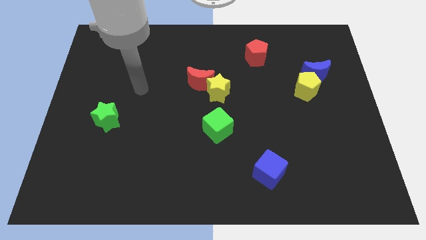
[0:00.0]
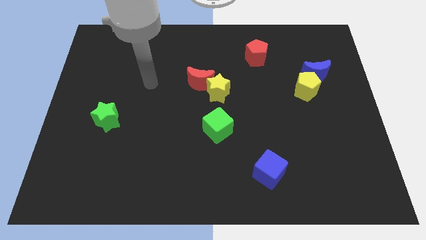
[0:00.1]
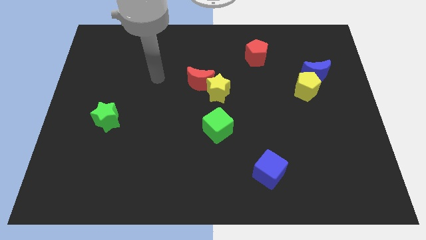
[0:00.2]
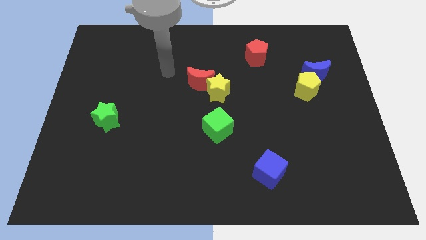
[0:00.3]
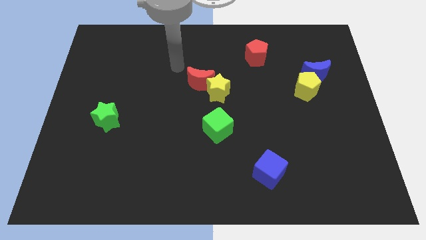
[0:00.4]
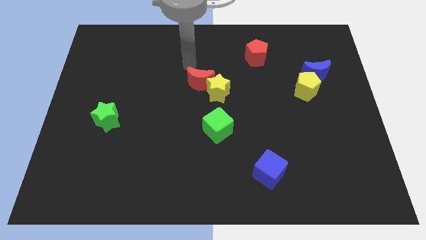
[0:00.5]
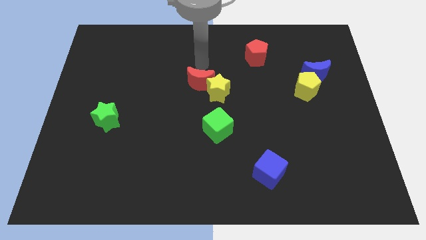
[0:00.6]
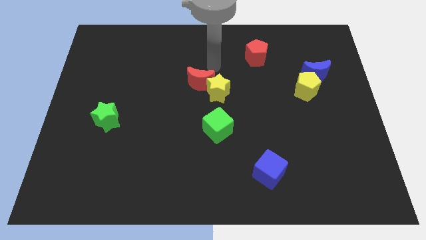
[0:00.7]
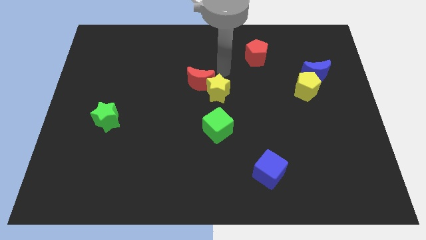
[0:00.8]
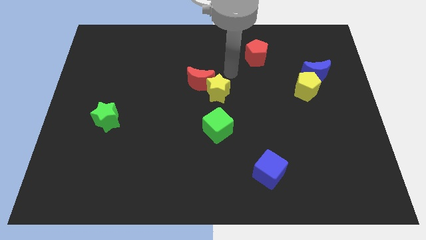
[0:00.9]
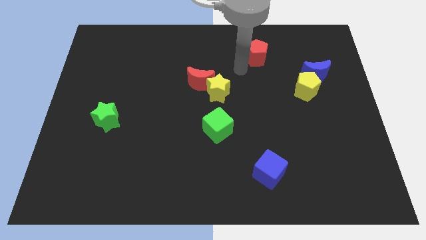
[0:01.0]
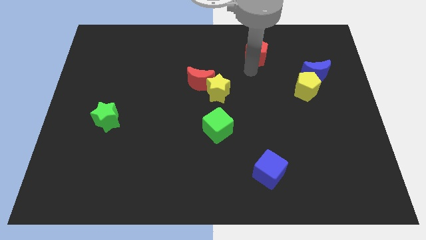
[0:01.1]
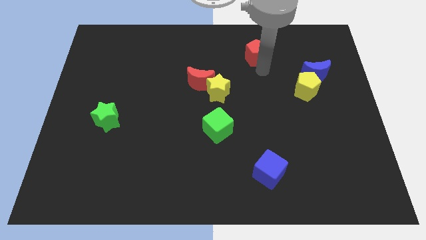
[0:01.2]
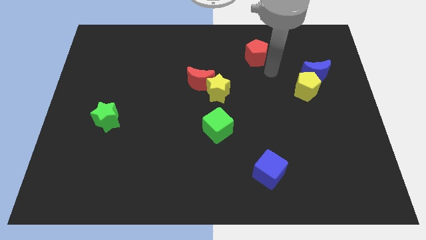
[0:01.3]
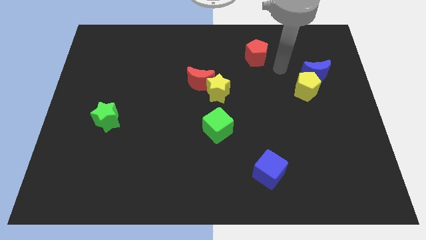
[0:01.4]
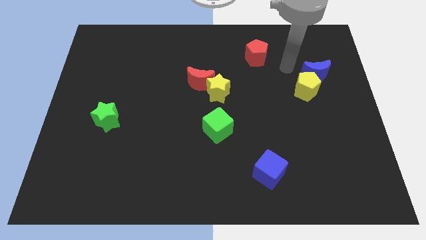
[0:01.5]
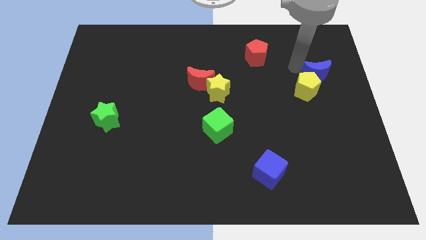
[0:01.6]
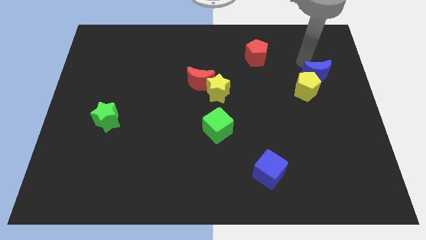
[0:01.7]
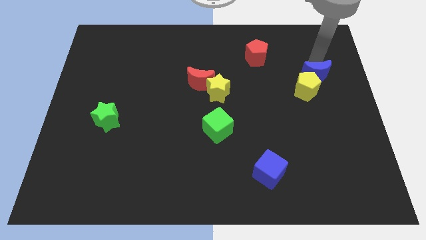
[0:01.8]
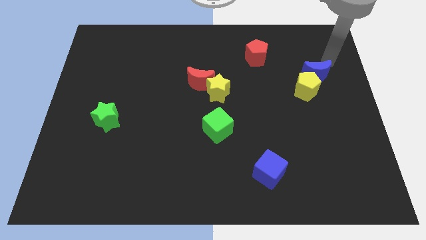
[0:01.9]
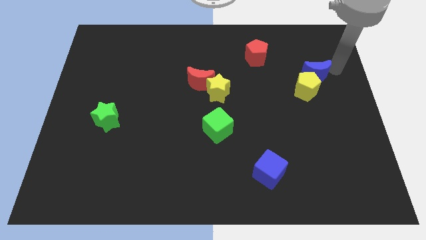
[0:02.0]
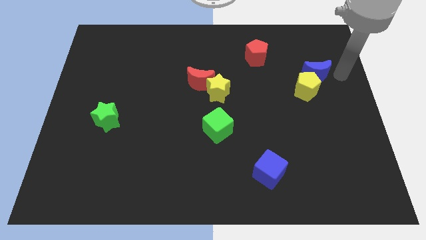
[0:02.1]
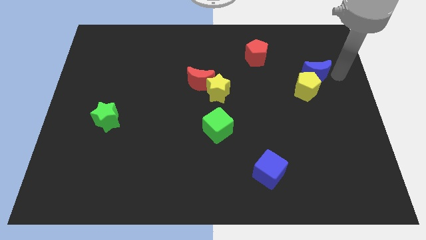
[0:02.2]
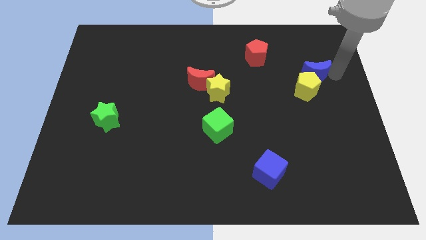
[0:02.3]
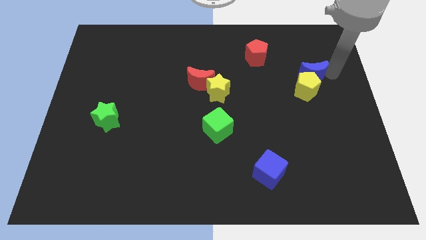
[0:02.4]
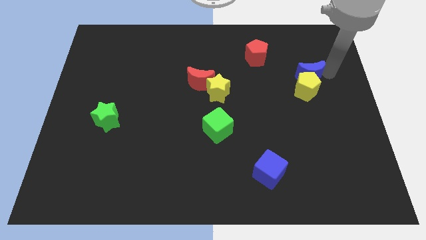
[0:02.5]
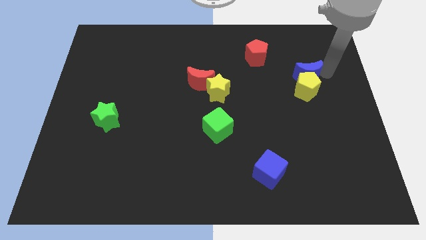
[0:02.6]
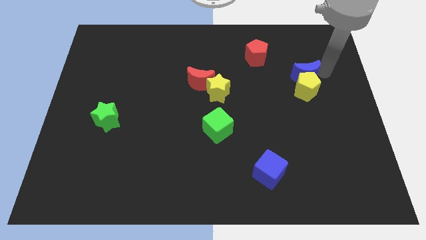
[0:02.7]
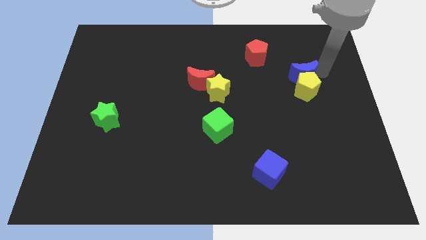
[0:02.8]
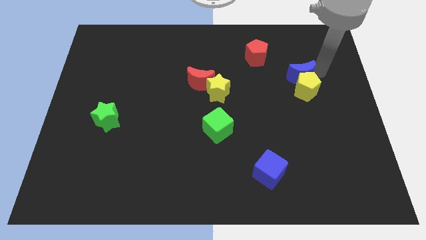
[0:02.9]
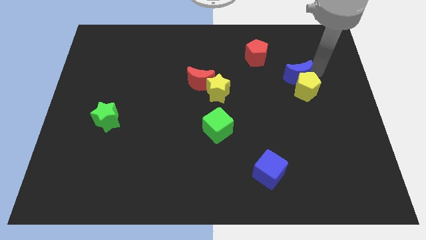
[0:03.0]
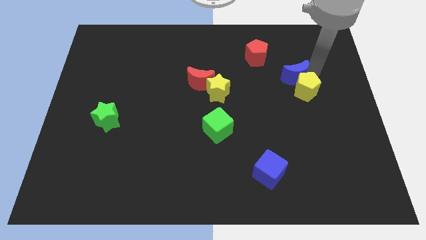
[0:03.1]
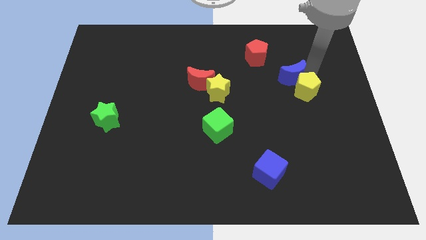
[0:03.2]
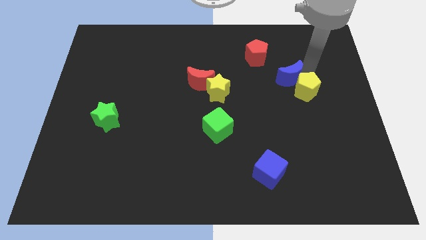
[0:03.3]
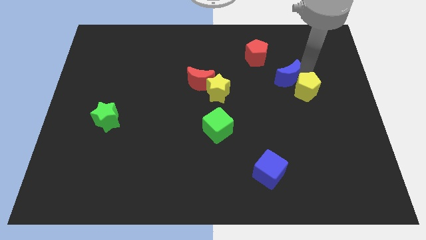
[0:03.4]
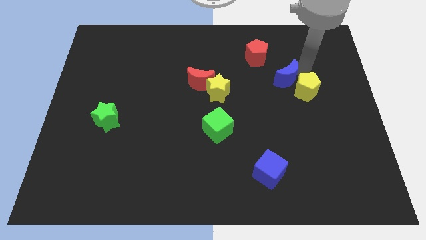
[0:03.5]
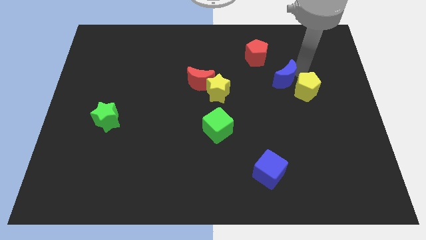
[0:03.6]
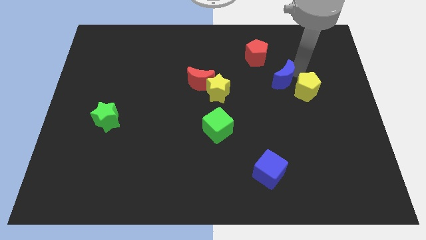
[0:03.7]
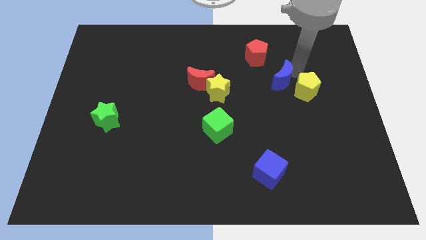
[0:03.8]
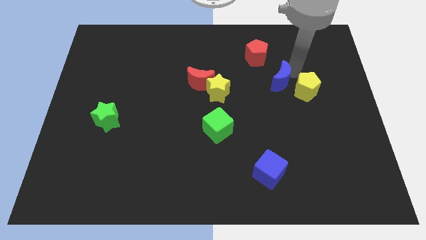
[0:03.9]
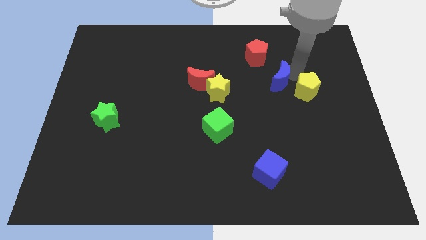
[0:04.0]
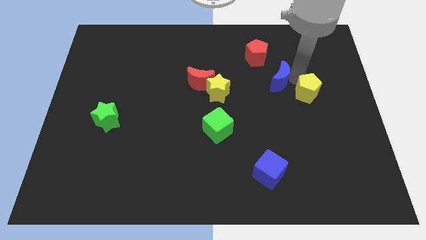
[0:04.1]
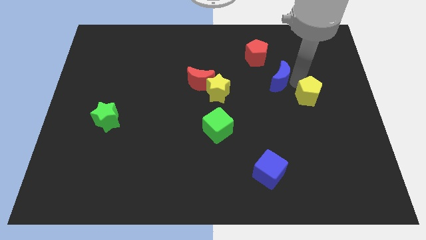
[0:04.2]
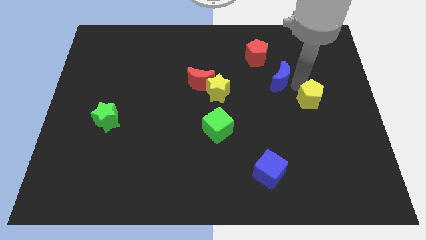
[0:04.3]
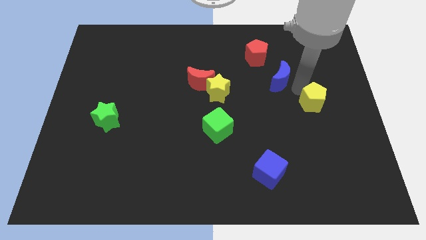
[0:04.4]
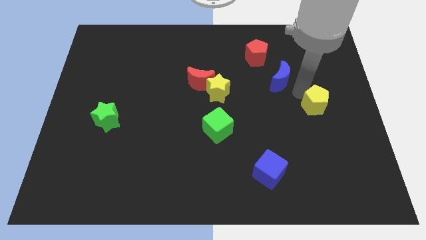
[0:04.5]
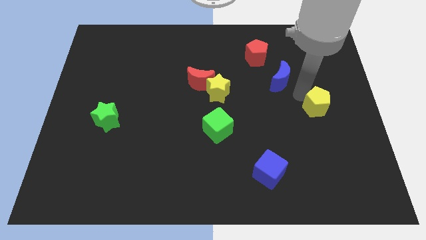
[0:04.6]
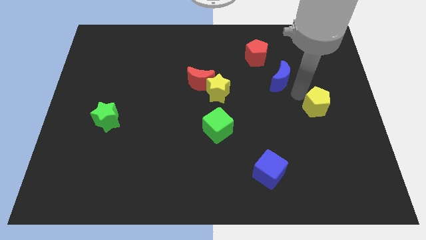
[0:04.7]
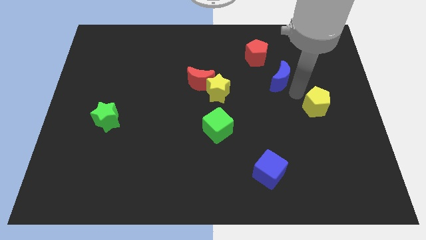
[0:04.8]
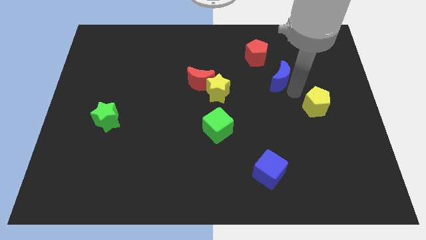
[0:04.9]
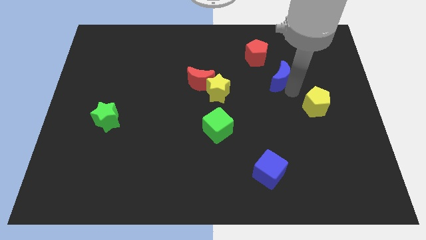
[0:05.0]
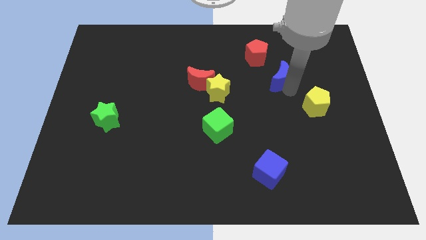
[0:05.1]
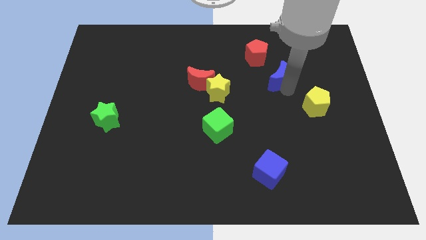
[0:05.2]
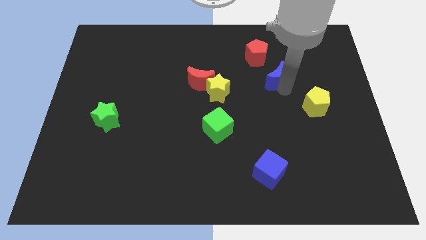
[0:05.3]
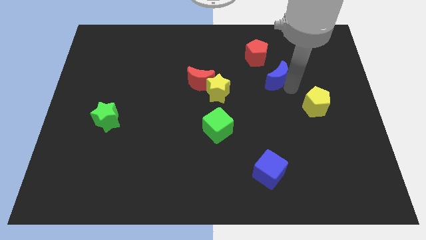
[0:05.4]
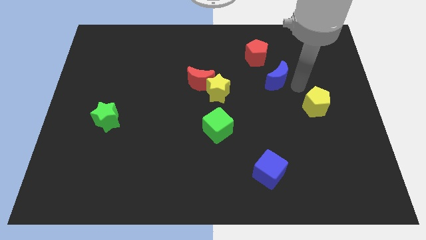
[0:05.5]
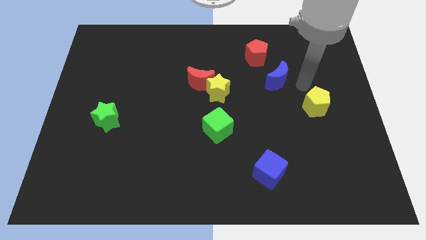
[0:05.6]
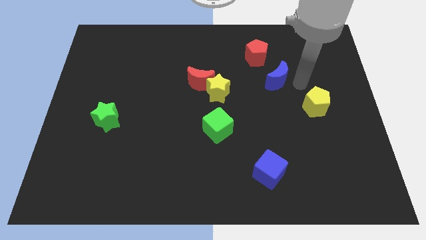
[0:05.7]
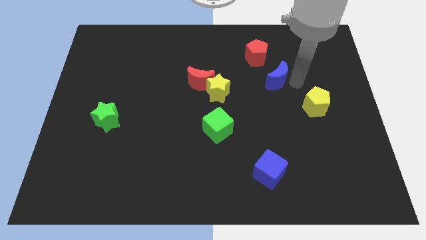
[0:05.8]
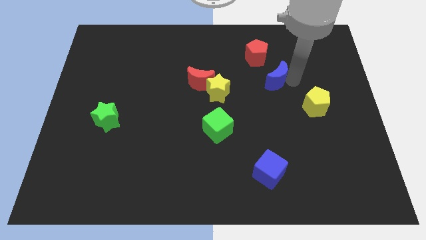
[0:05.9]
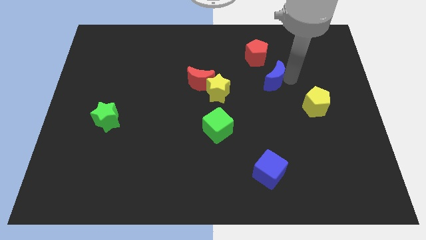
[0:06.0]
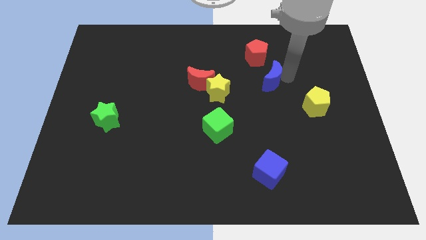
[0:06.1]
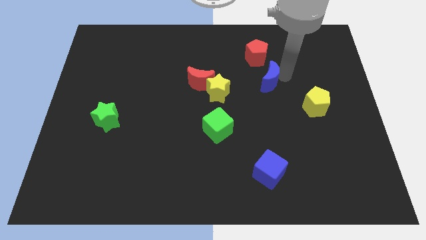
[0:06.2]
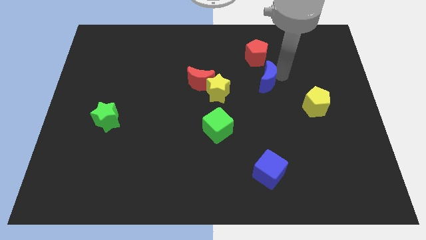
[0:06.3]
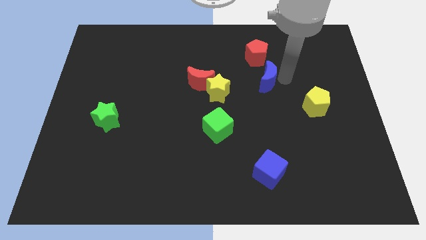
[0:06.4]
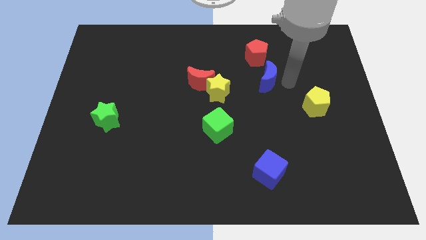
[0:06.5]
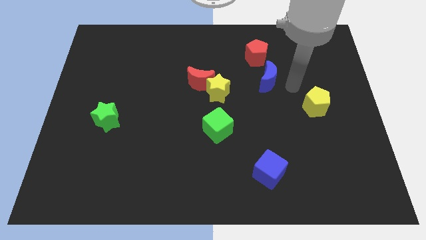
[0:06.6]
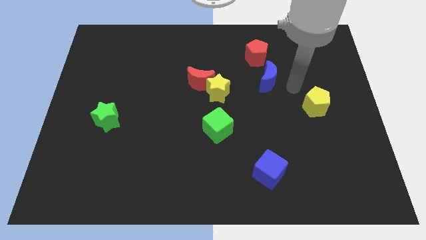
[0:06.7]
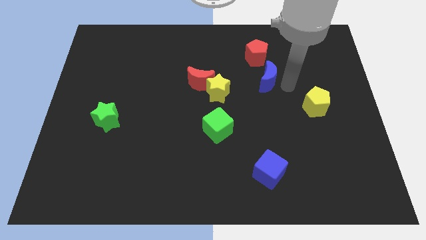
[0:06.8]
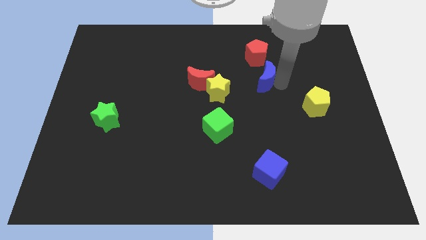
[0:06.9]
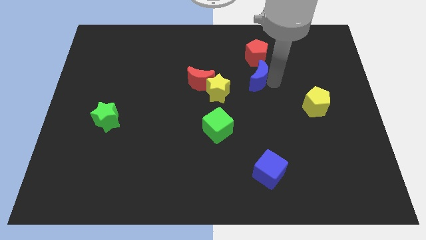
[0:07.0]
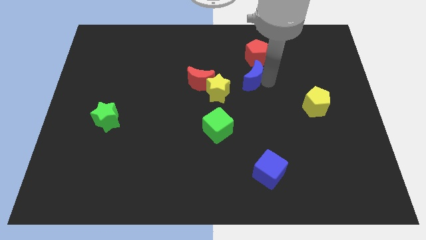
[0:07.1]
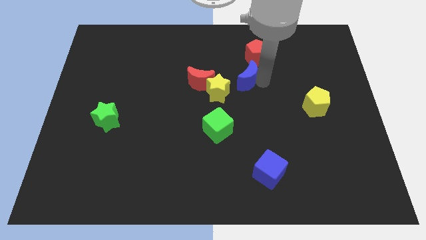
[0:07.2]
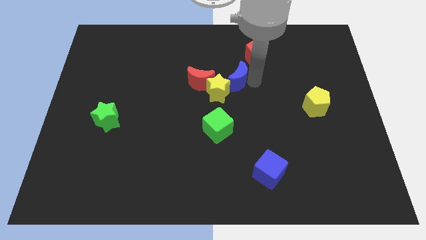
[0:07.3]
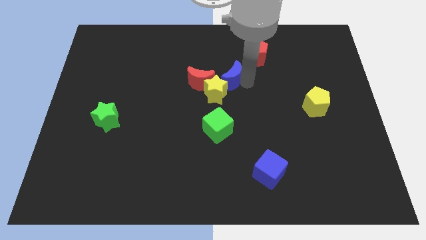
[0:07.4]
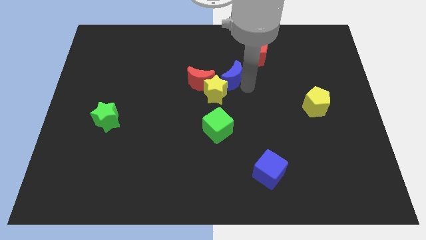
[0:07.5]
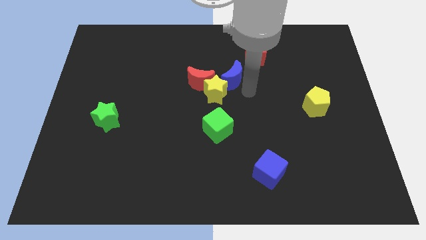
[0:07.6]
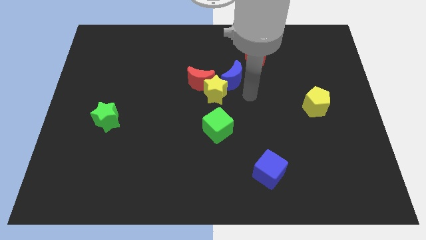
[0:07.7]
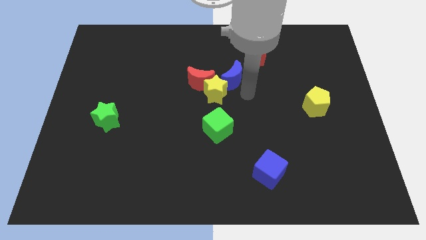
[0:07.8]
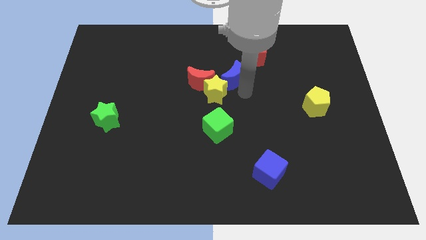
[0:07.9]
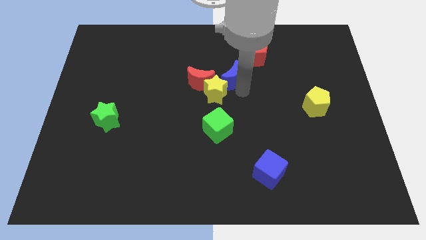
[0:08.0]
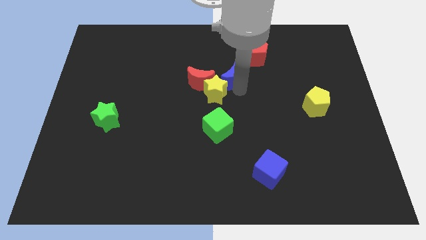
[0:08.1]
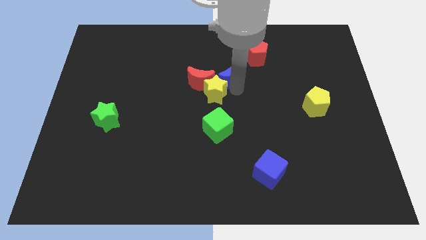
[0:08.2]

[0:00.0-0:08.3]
put the blue moon to the top right side of the red moon

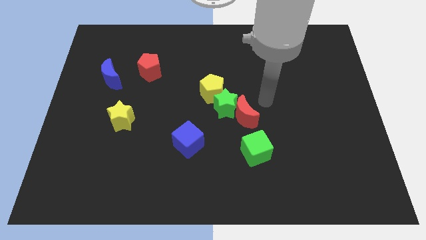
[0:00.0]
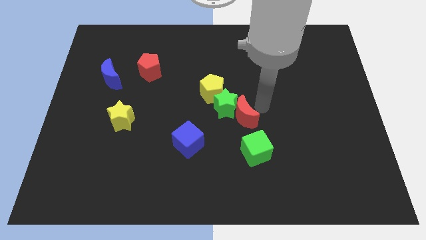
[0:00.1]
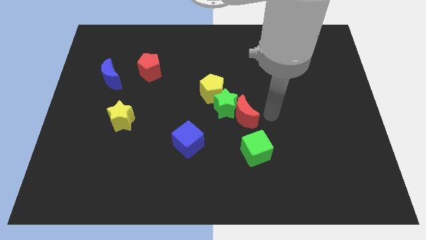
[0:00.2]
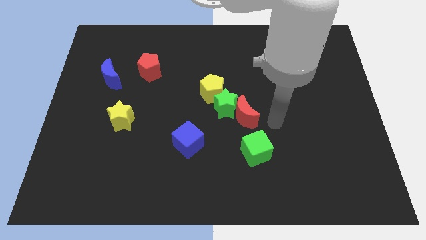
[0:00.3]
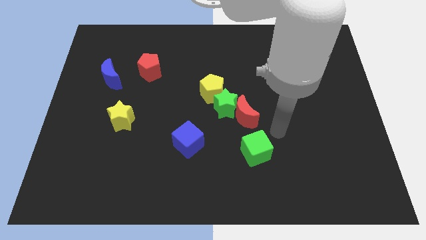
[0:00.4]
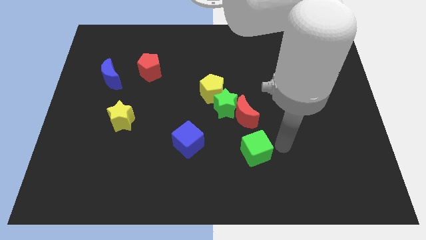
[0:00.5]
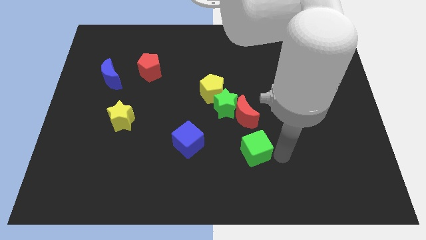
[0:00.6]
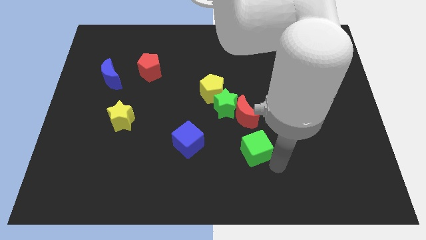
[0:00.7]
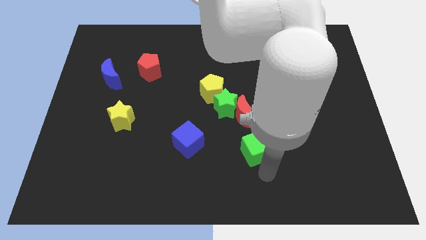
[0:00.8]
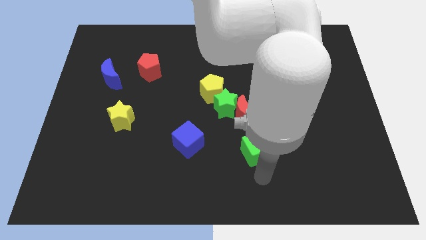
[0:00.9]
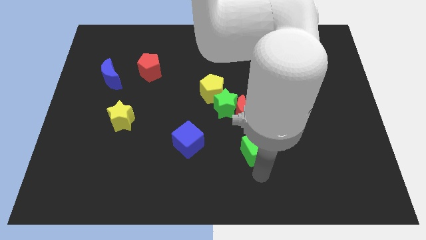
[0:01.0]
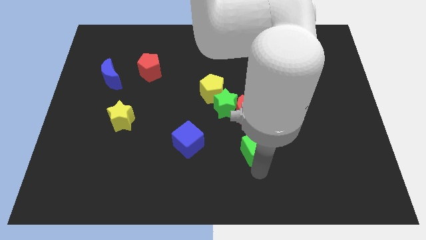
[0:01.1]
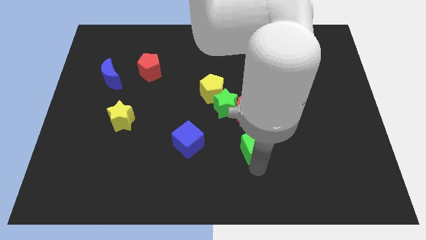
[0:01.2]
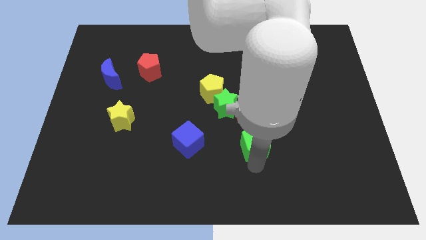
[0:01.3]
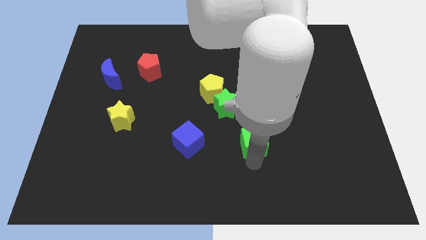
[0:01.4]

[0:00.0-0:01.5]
move the green cube to the bottom right side of the green star
